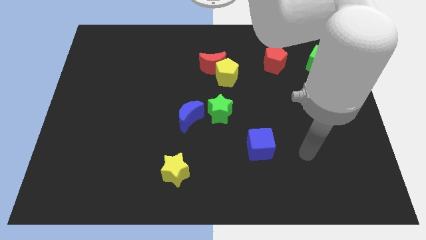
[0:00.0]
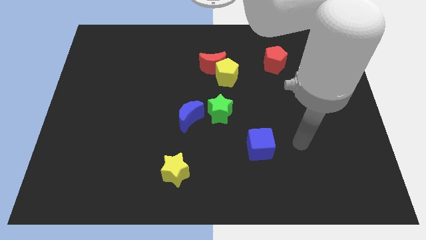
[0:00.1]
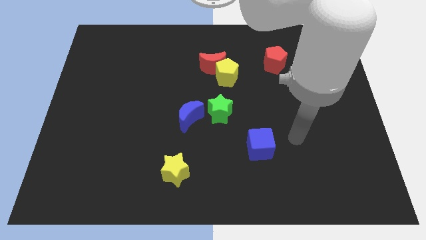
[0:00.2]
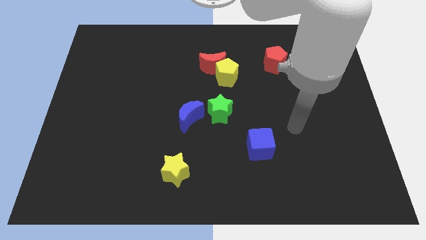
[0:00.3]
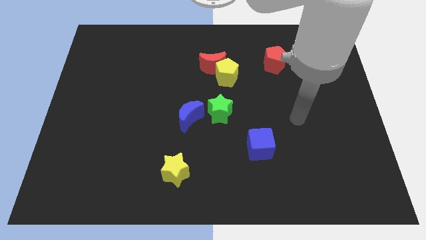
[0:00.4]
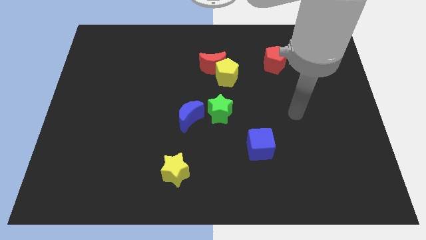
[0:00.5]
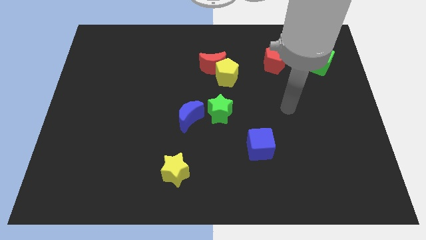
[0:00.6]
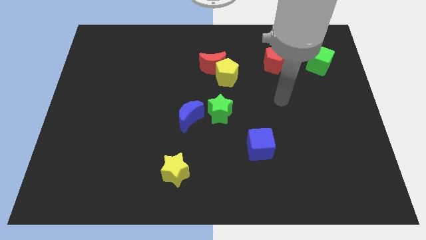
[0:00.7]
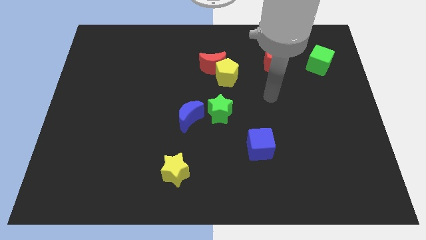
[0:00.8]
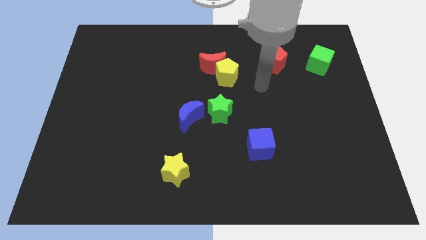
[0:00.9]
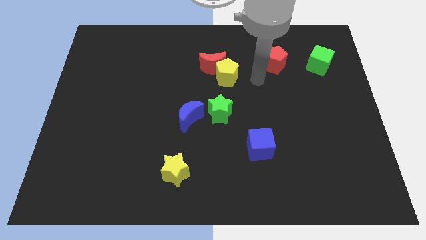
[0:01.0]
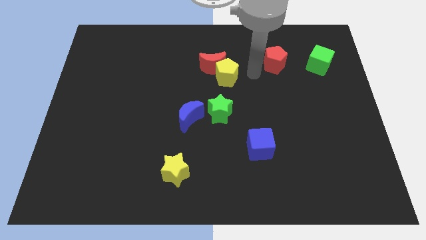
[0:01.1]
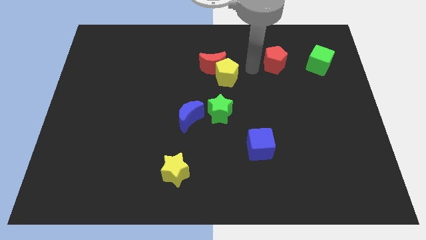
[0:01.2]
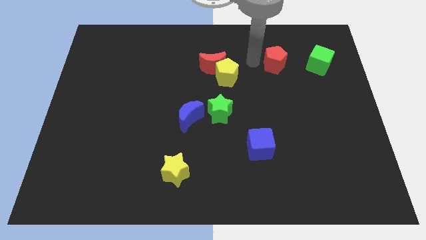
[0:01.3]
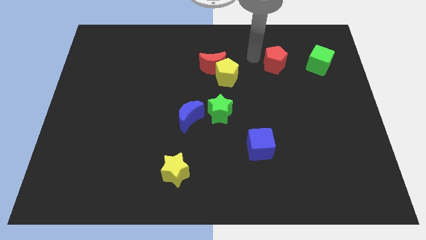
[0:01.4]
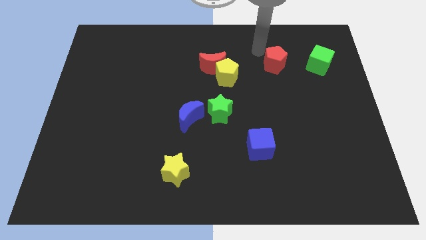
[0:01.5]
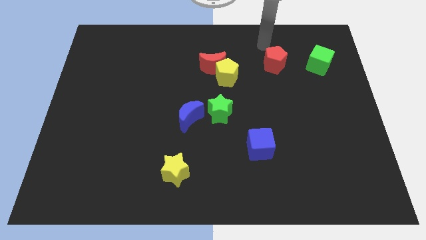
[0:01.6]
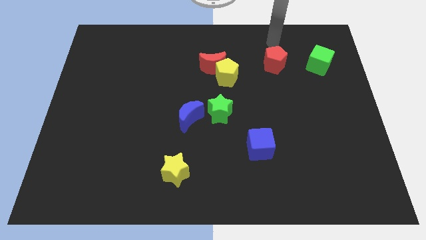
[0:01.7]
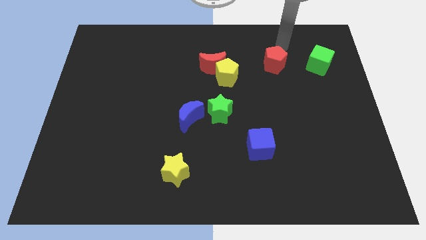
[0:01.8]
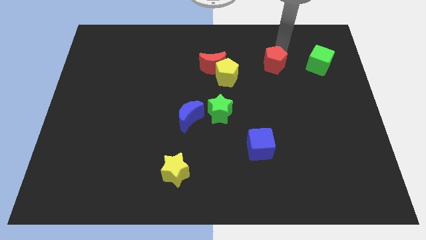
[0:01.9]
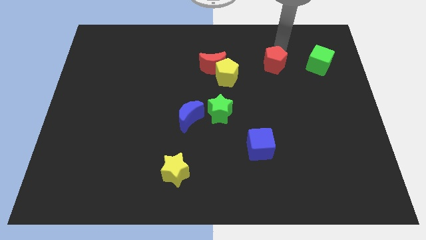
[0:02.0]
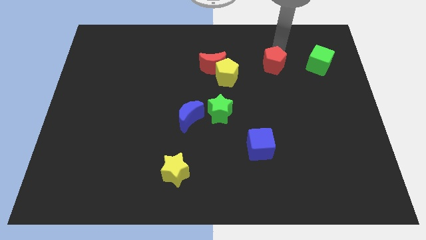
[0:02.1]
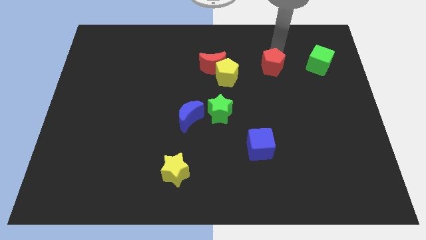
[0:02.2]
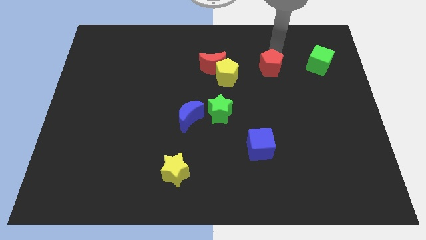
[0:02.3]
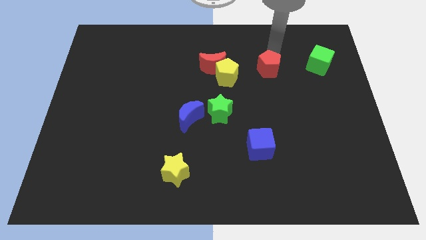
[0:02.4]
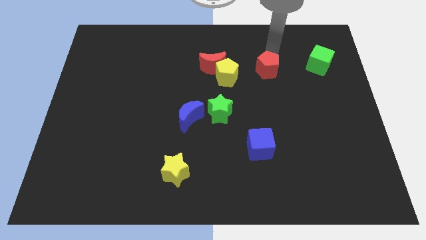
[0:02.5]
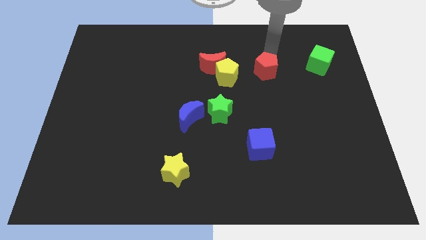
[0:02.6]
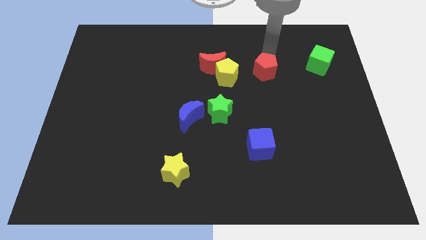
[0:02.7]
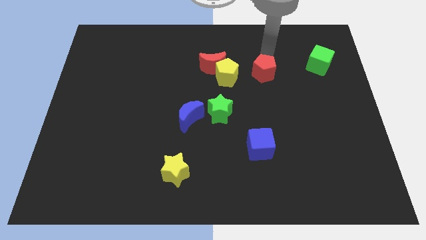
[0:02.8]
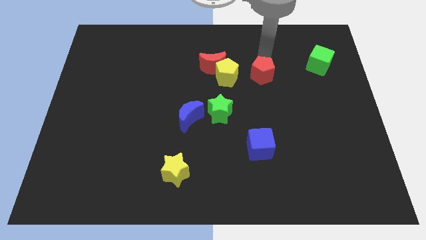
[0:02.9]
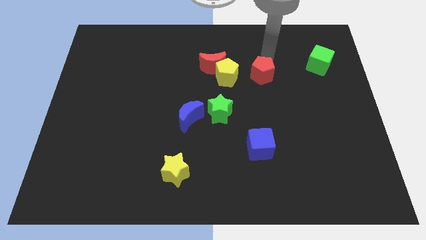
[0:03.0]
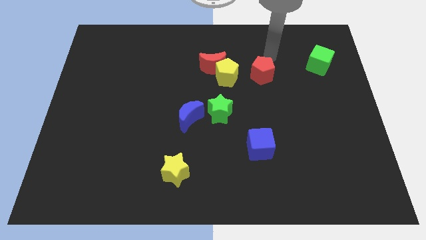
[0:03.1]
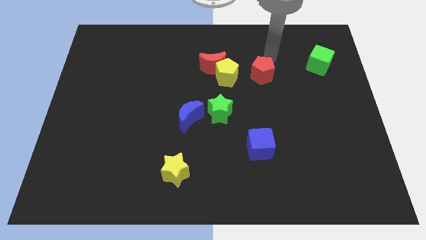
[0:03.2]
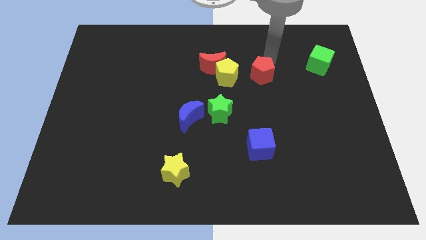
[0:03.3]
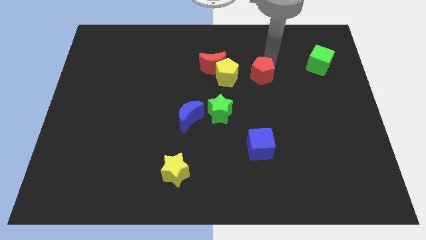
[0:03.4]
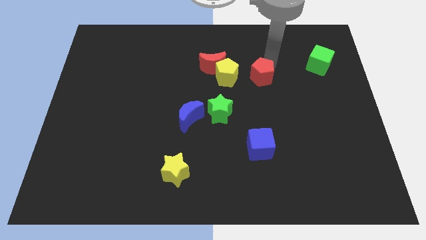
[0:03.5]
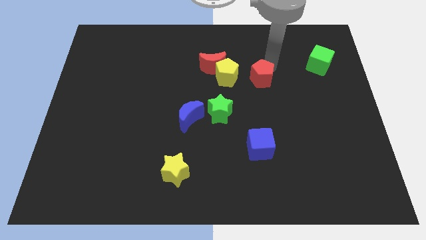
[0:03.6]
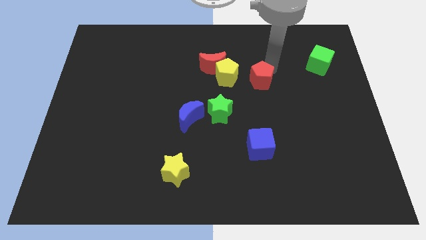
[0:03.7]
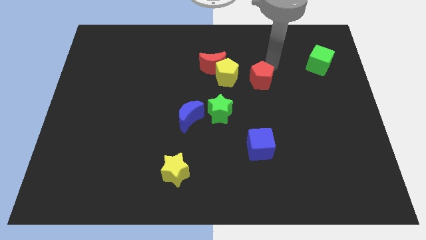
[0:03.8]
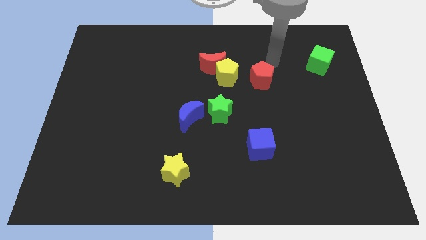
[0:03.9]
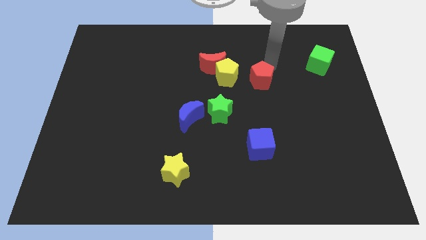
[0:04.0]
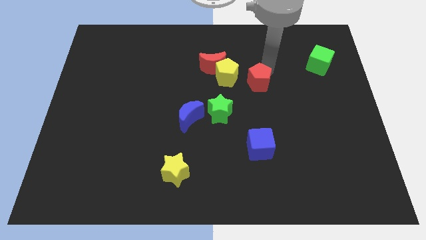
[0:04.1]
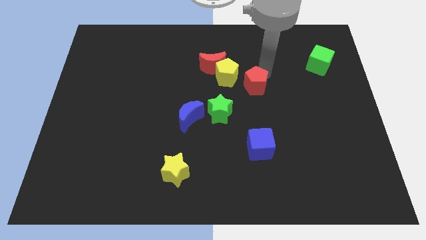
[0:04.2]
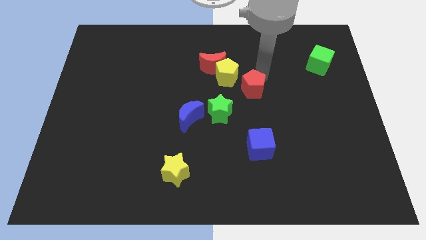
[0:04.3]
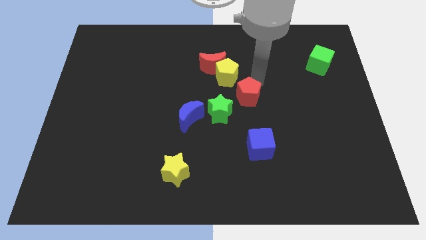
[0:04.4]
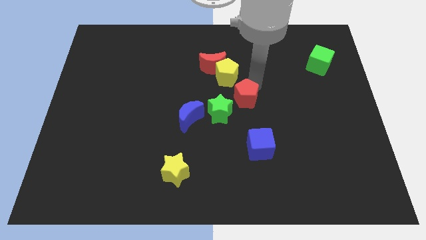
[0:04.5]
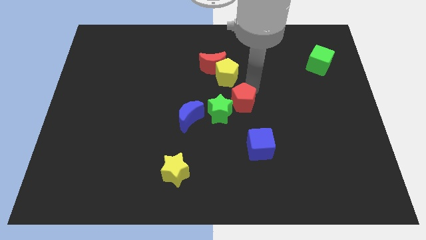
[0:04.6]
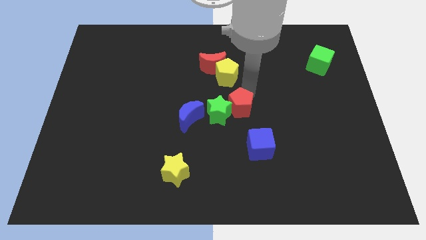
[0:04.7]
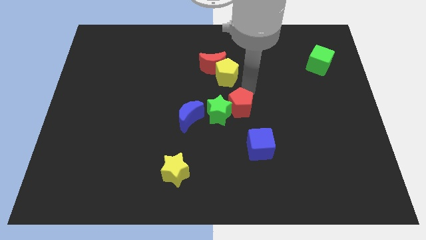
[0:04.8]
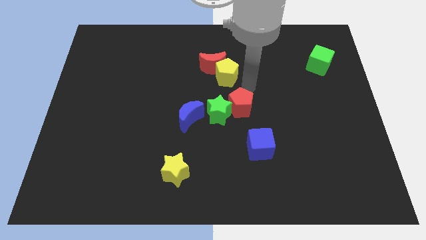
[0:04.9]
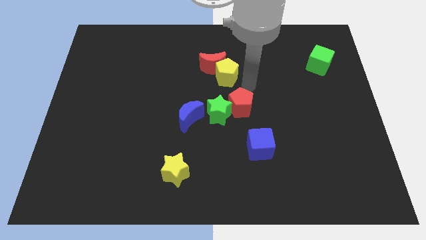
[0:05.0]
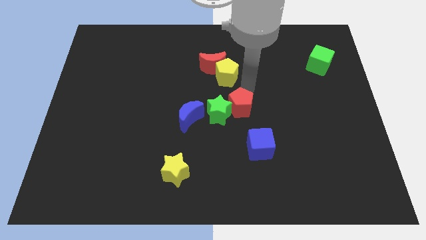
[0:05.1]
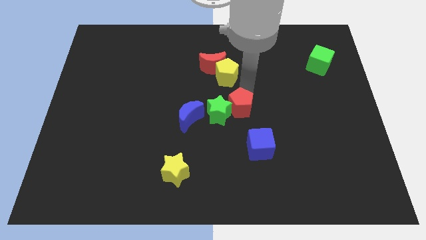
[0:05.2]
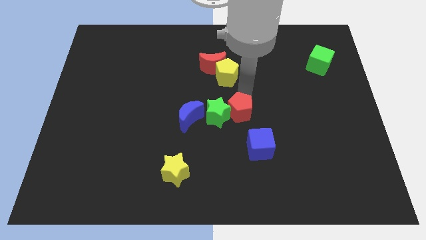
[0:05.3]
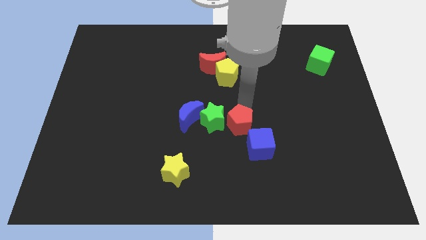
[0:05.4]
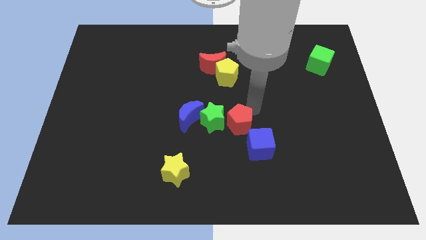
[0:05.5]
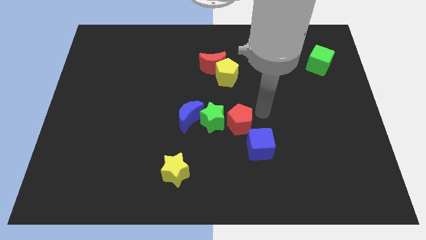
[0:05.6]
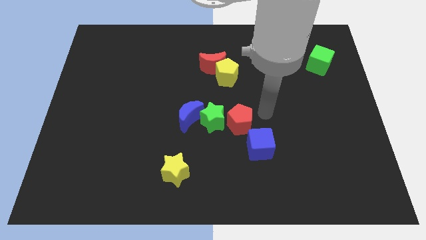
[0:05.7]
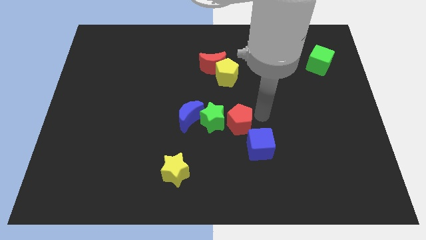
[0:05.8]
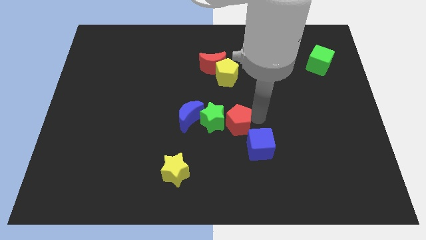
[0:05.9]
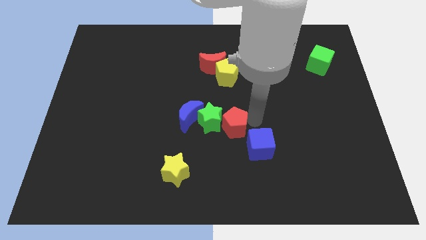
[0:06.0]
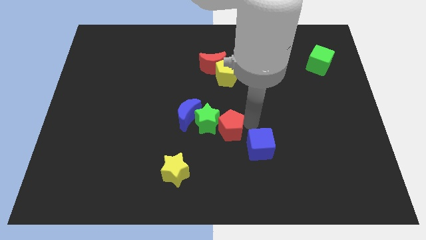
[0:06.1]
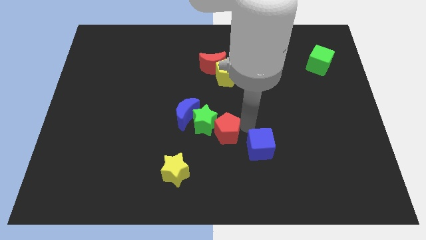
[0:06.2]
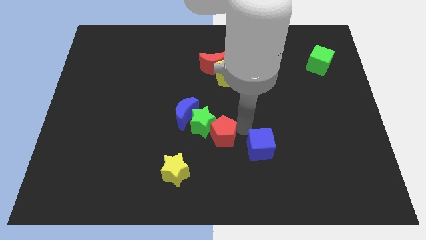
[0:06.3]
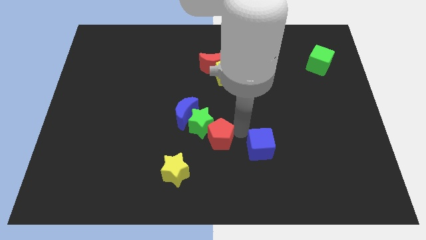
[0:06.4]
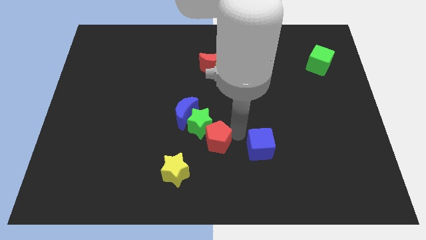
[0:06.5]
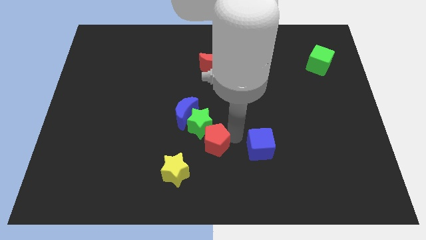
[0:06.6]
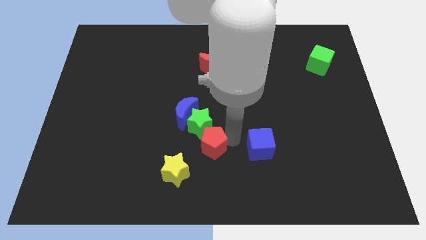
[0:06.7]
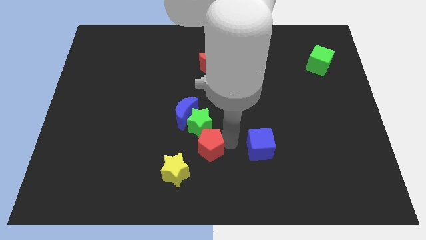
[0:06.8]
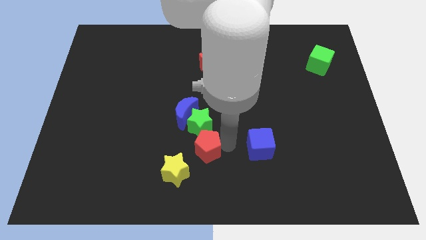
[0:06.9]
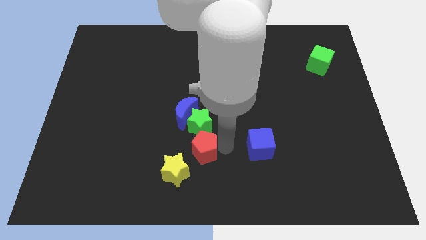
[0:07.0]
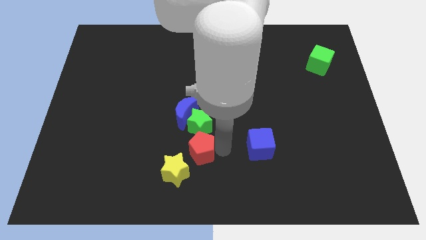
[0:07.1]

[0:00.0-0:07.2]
move the red pentagon to the bottom left of the green star
